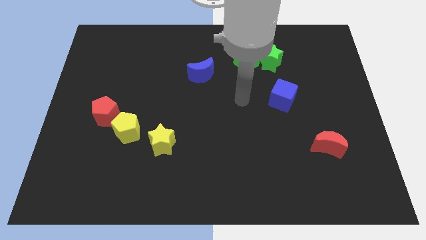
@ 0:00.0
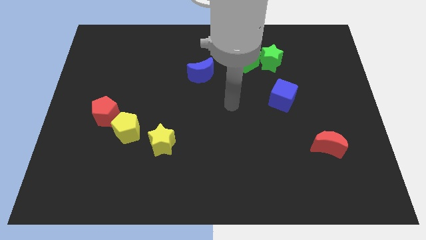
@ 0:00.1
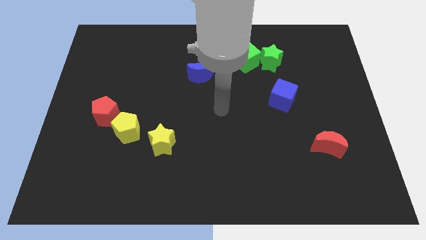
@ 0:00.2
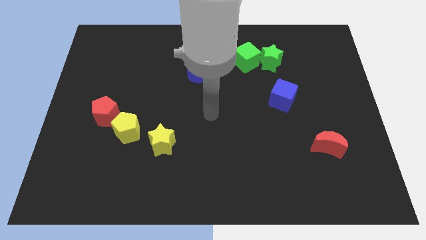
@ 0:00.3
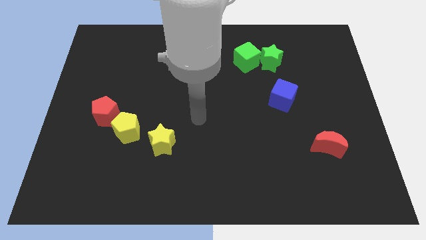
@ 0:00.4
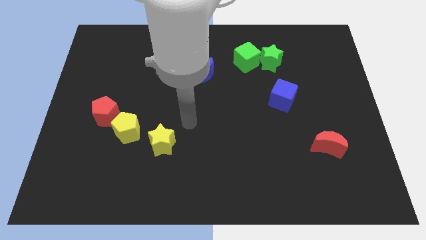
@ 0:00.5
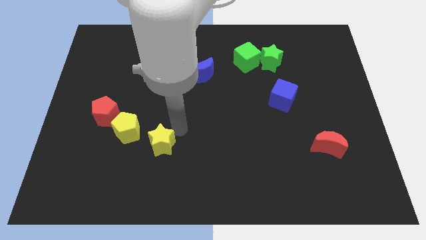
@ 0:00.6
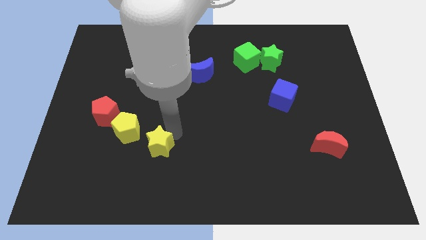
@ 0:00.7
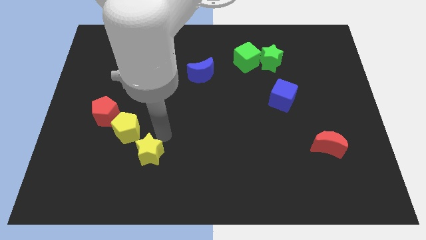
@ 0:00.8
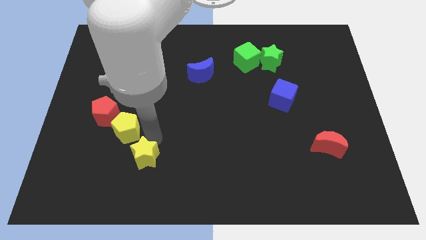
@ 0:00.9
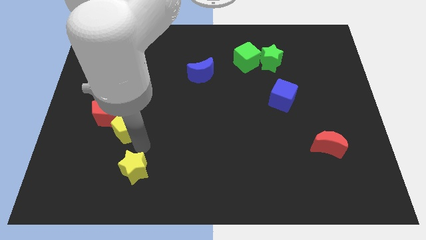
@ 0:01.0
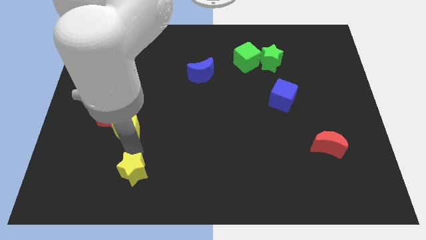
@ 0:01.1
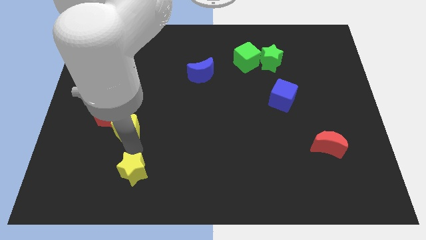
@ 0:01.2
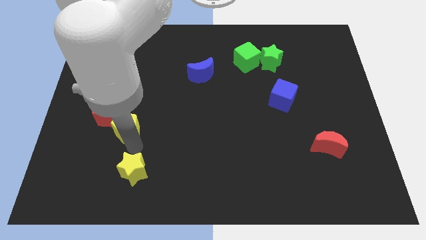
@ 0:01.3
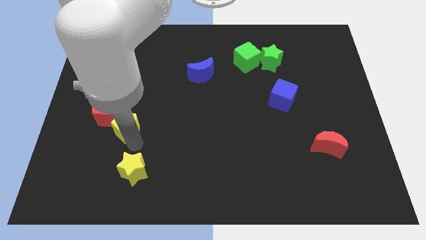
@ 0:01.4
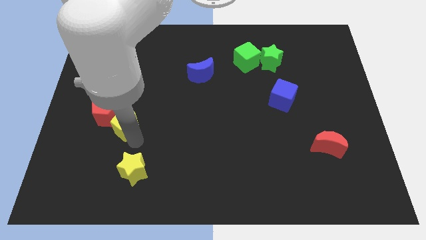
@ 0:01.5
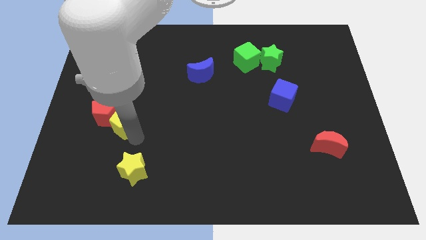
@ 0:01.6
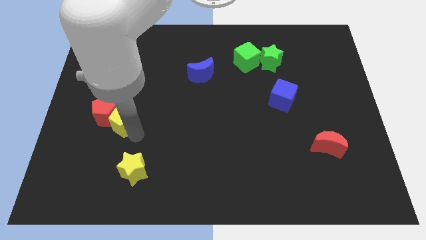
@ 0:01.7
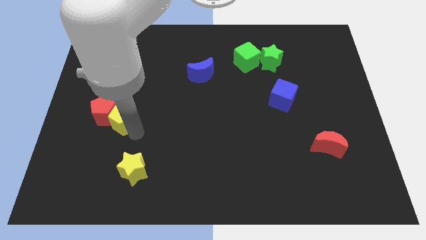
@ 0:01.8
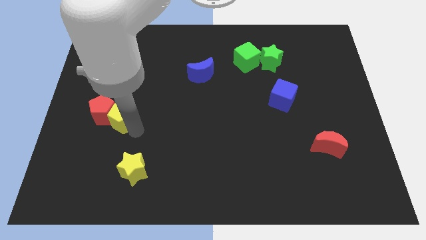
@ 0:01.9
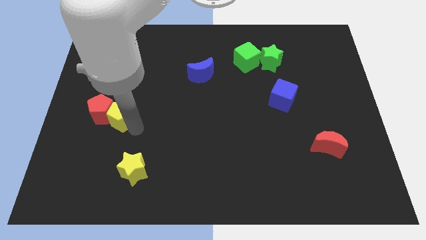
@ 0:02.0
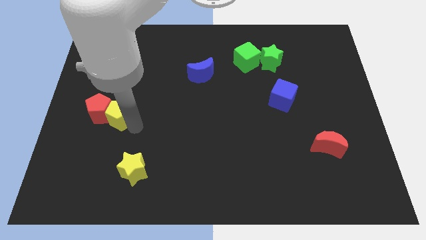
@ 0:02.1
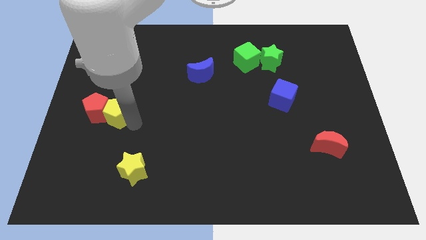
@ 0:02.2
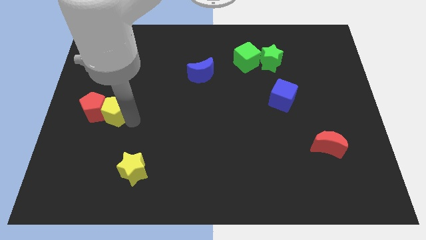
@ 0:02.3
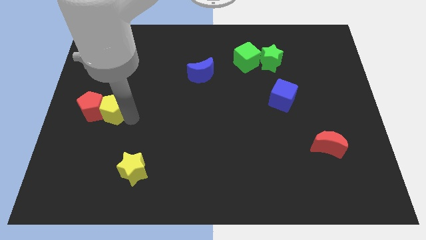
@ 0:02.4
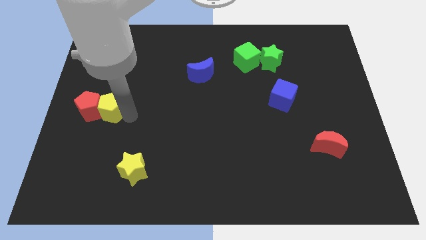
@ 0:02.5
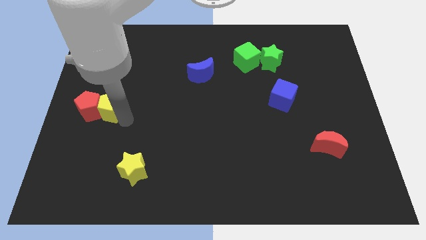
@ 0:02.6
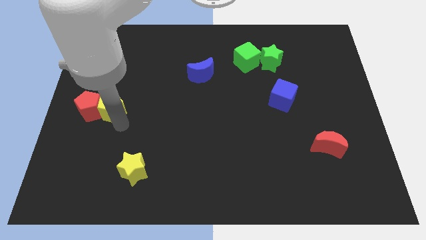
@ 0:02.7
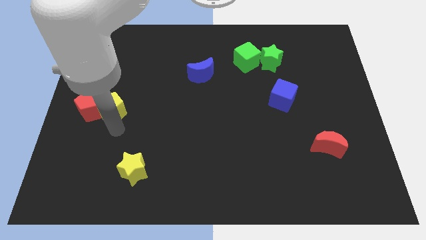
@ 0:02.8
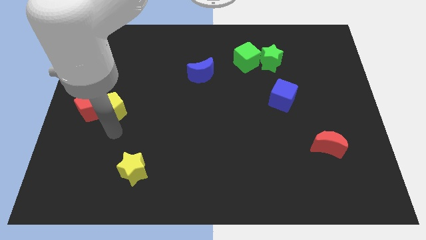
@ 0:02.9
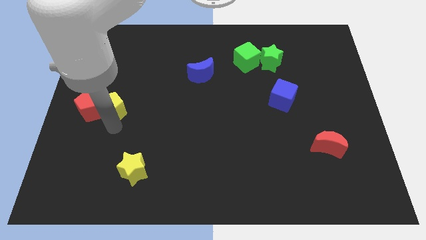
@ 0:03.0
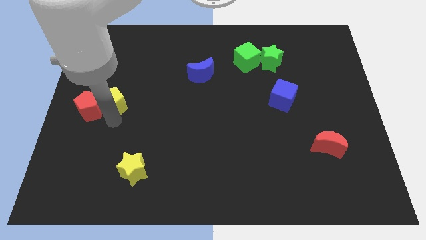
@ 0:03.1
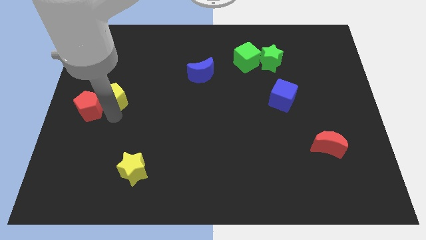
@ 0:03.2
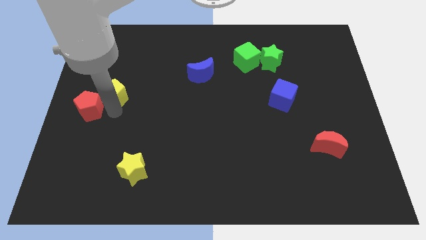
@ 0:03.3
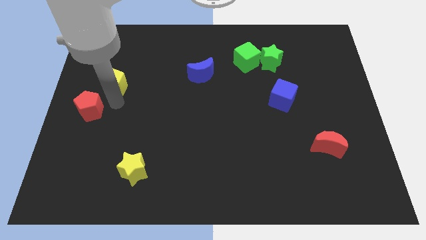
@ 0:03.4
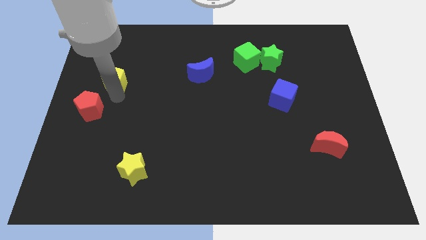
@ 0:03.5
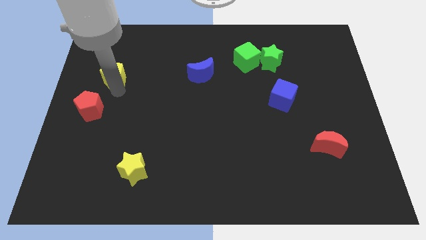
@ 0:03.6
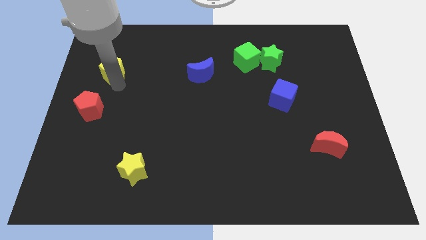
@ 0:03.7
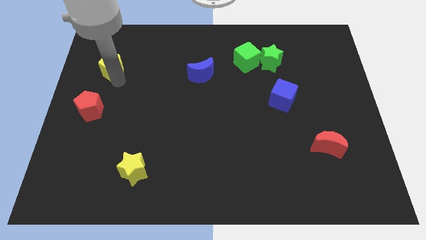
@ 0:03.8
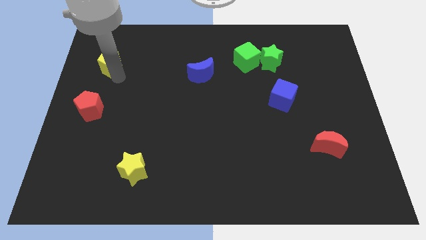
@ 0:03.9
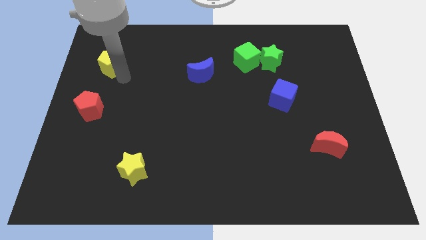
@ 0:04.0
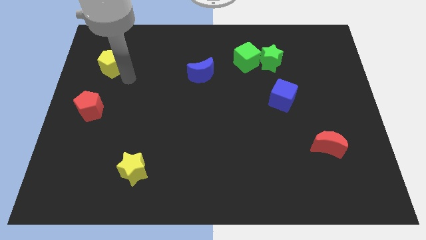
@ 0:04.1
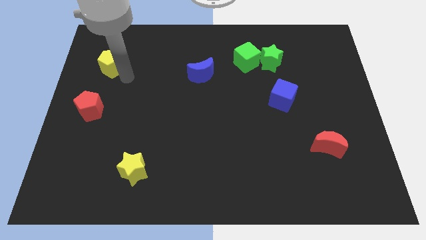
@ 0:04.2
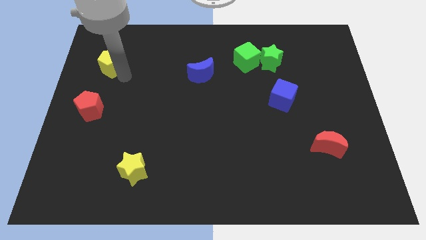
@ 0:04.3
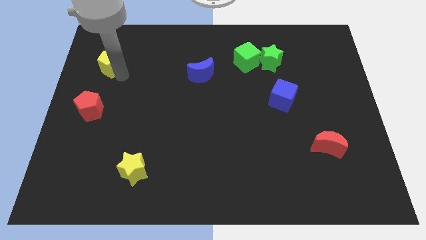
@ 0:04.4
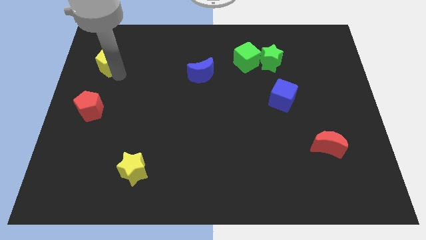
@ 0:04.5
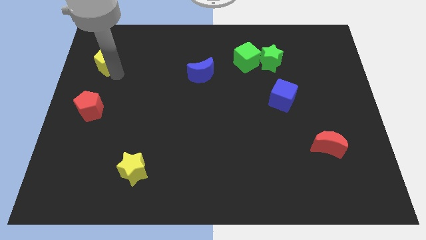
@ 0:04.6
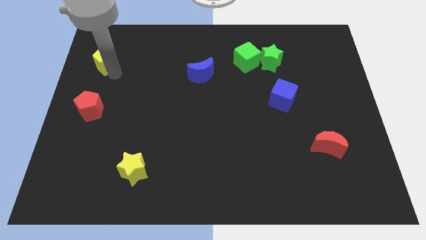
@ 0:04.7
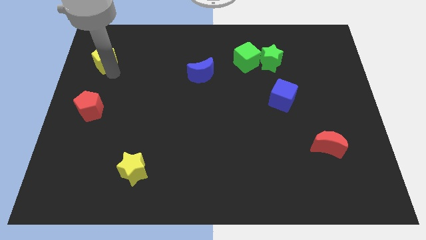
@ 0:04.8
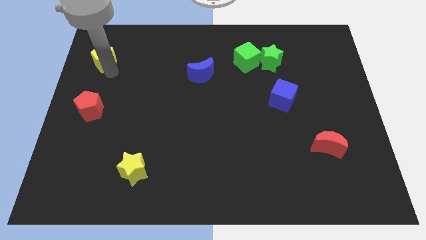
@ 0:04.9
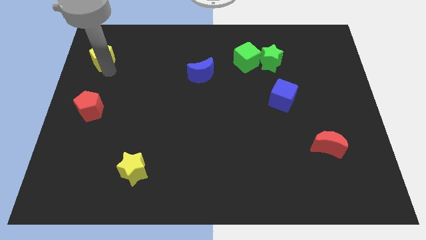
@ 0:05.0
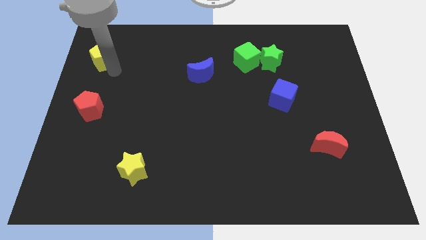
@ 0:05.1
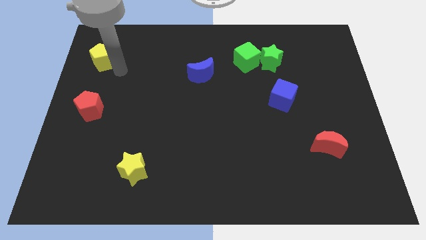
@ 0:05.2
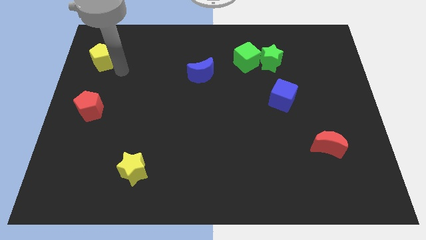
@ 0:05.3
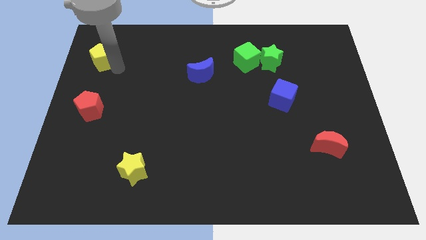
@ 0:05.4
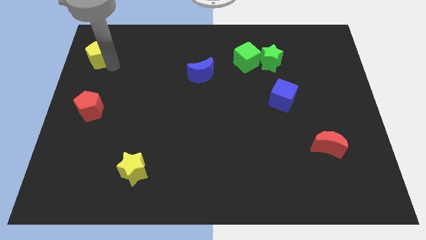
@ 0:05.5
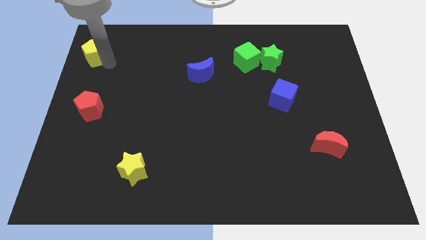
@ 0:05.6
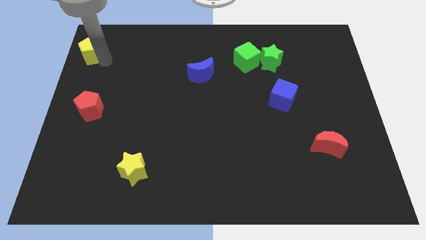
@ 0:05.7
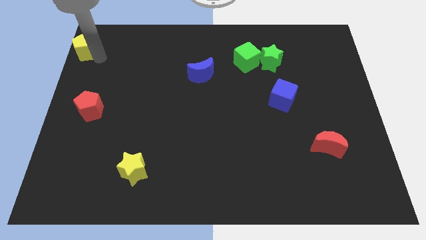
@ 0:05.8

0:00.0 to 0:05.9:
move the yellow pentagon to the top left of the board

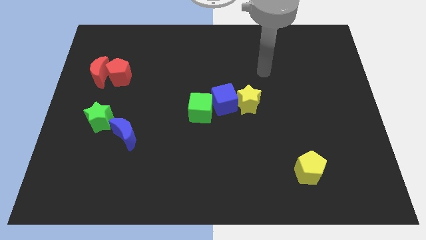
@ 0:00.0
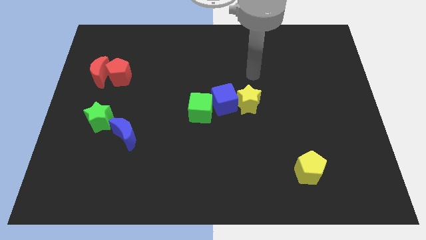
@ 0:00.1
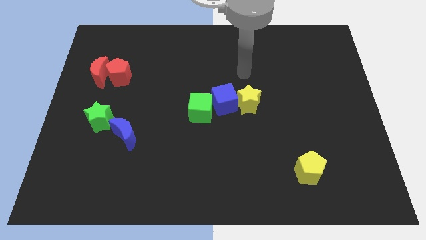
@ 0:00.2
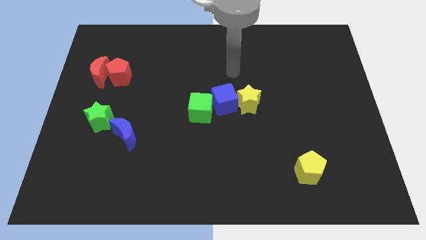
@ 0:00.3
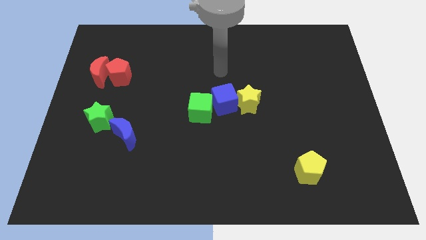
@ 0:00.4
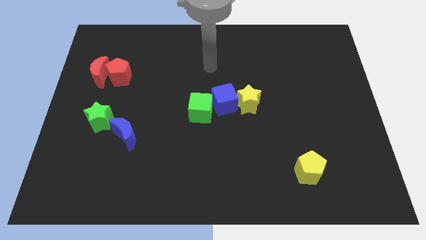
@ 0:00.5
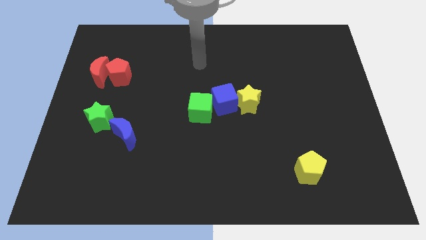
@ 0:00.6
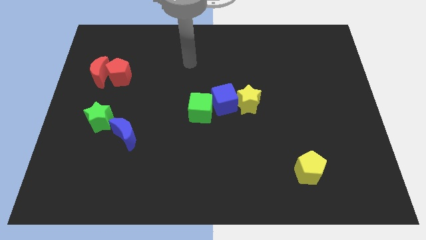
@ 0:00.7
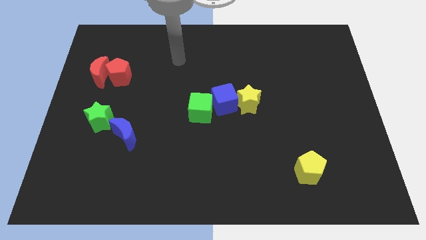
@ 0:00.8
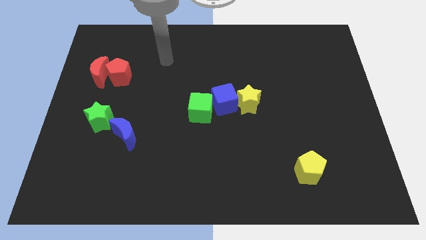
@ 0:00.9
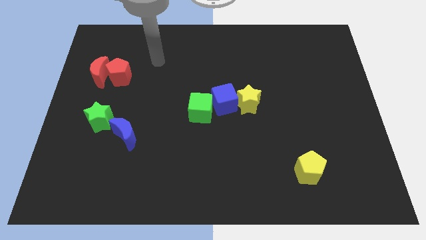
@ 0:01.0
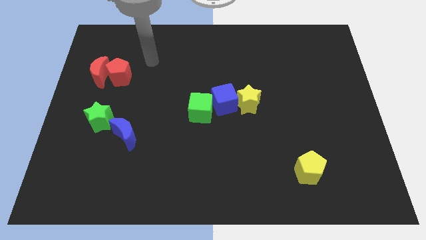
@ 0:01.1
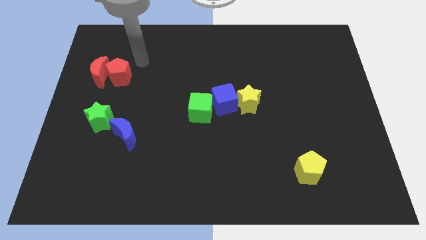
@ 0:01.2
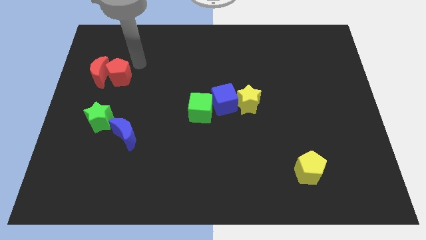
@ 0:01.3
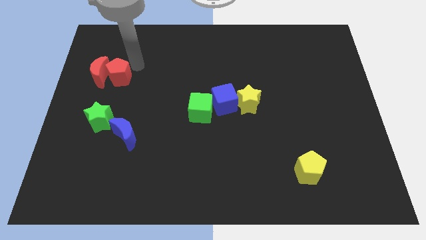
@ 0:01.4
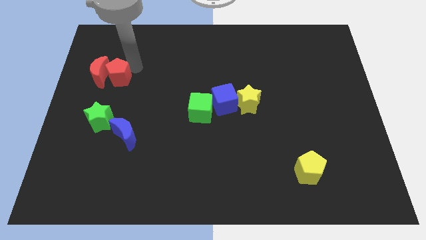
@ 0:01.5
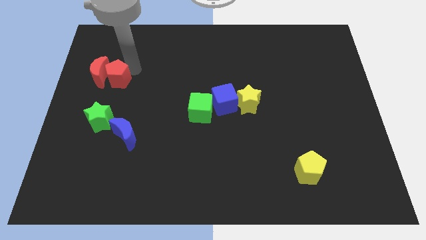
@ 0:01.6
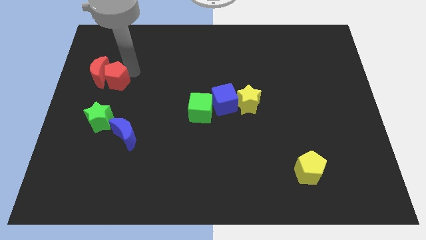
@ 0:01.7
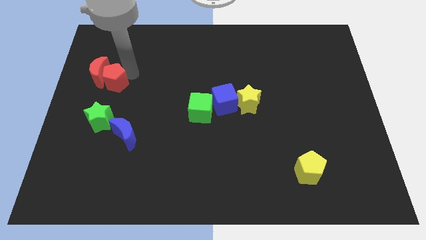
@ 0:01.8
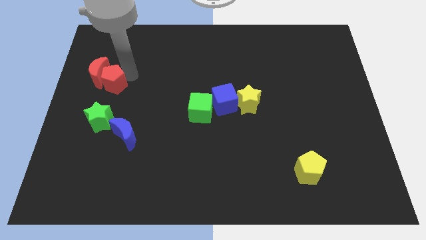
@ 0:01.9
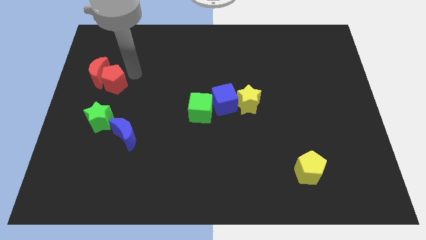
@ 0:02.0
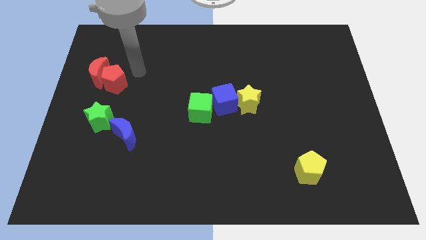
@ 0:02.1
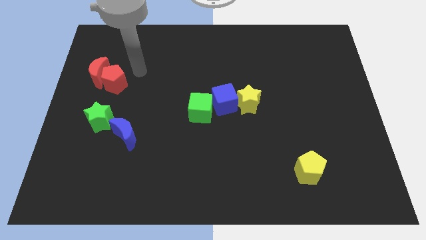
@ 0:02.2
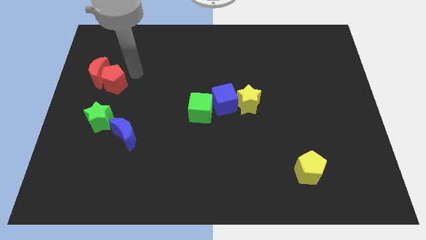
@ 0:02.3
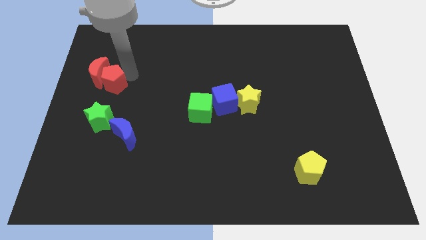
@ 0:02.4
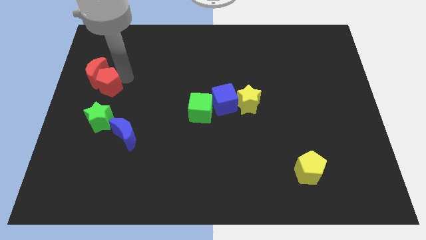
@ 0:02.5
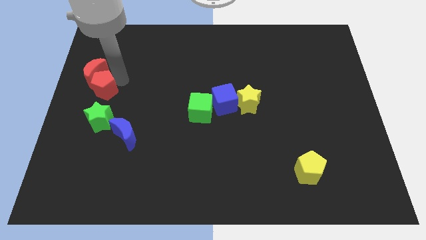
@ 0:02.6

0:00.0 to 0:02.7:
move the red pentagon to the left side of the board
